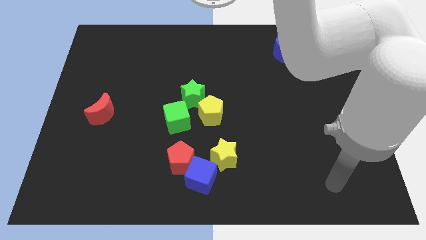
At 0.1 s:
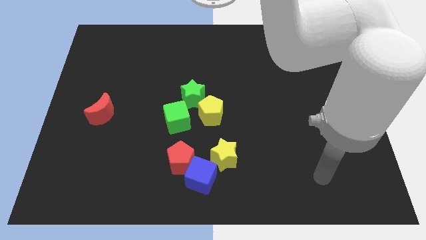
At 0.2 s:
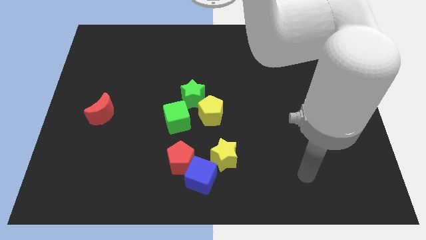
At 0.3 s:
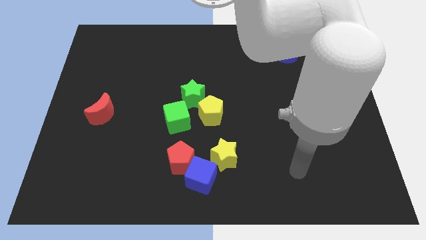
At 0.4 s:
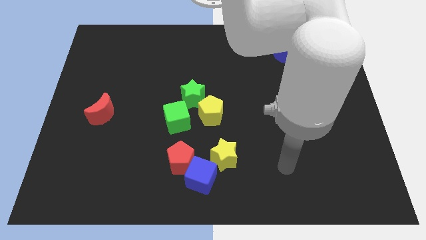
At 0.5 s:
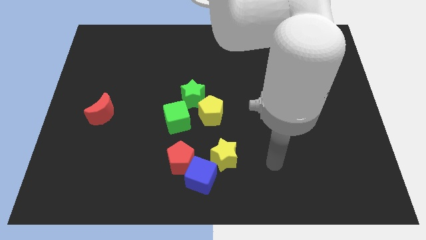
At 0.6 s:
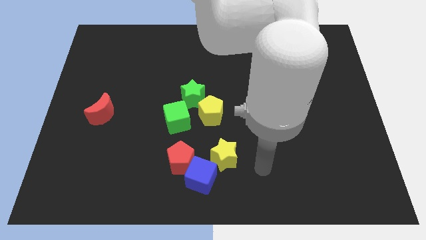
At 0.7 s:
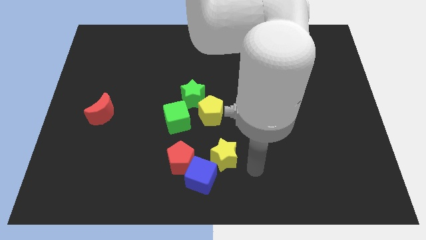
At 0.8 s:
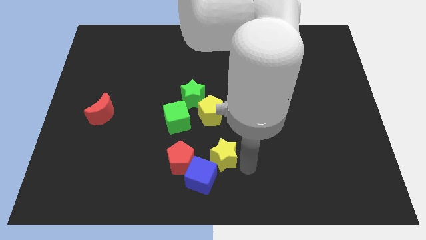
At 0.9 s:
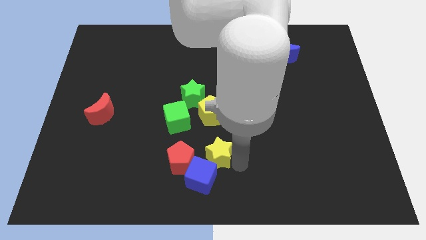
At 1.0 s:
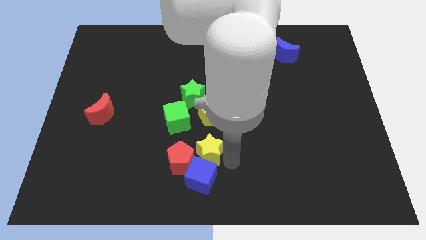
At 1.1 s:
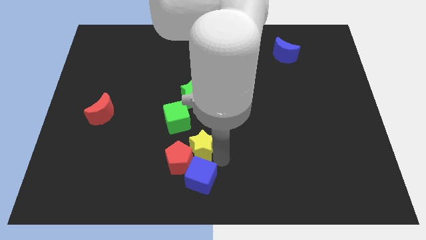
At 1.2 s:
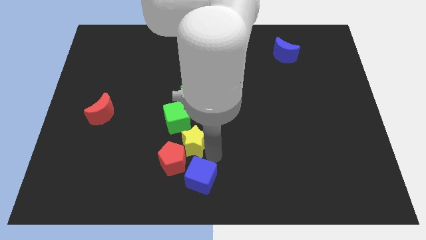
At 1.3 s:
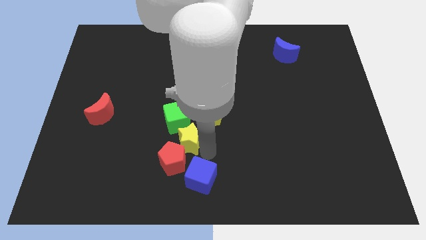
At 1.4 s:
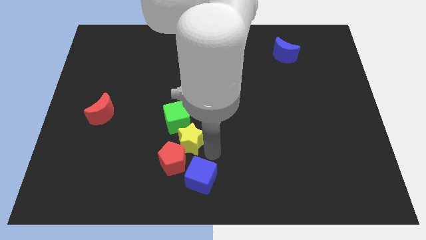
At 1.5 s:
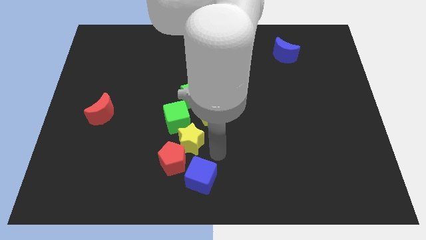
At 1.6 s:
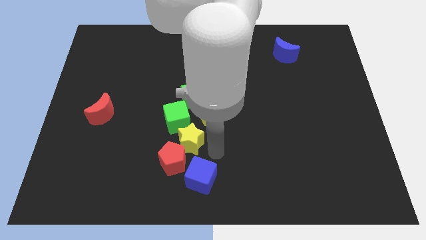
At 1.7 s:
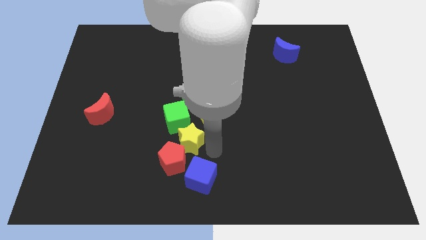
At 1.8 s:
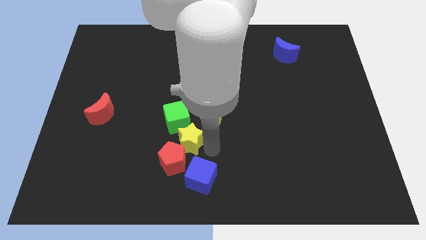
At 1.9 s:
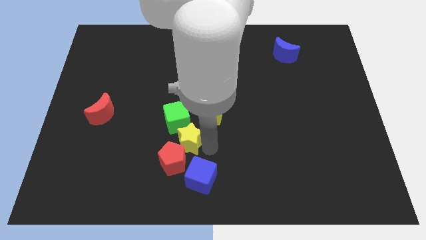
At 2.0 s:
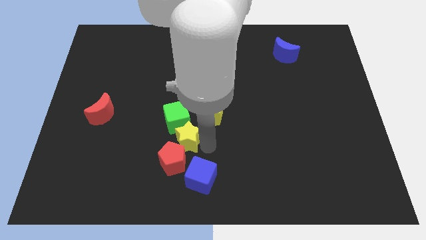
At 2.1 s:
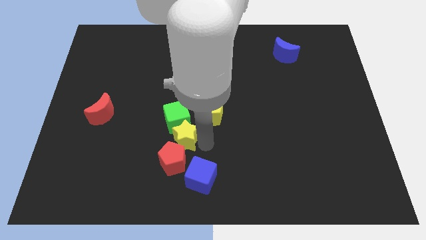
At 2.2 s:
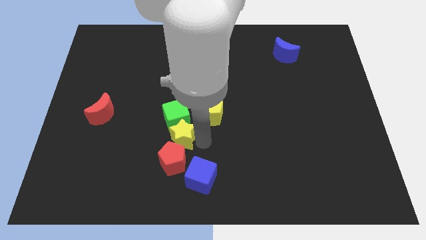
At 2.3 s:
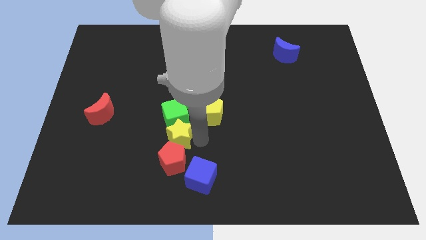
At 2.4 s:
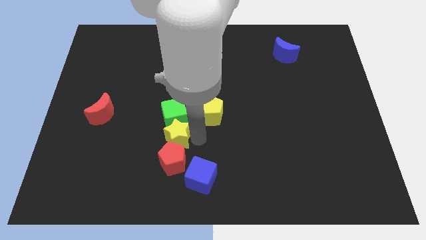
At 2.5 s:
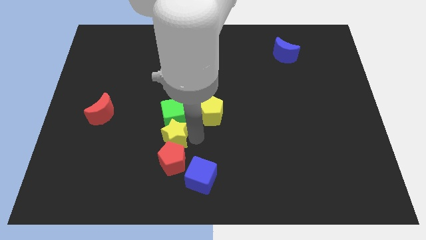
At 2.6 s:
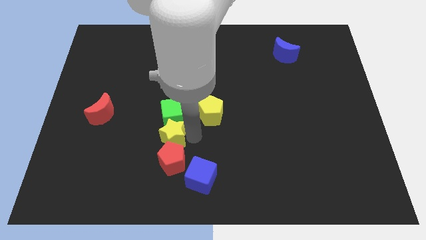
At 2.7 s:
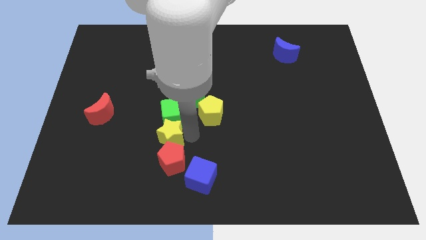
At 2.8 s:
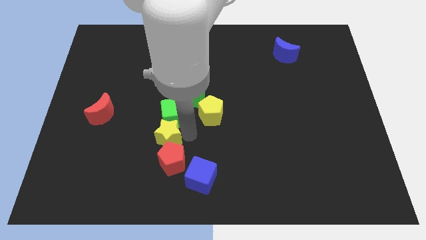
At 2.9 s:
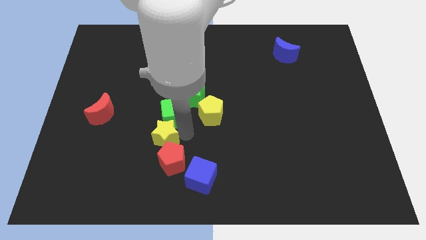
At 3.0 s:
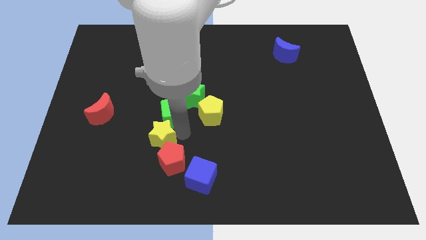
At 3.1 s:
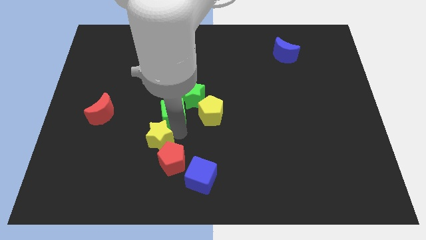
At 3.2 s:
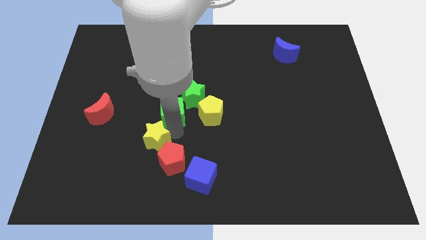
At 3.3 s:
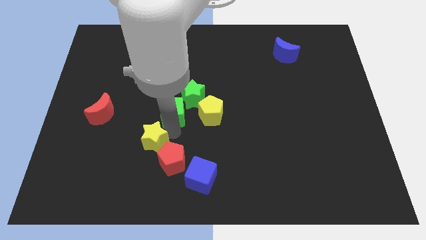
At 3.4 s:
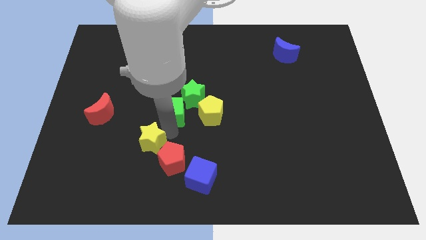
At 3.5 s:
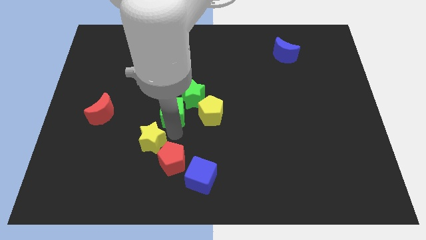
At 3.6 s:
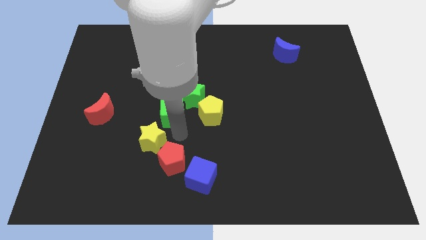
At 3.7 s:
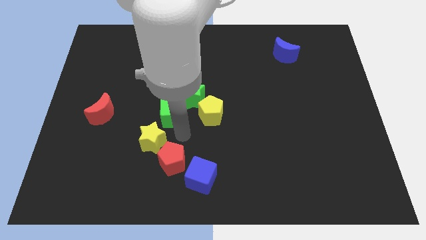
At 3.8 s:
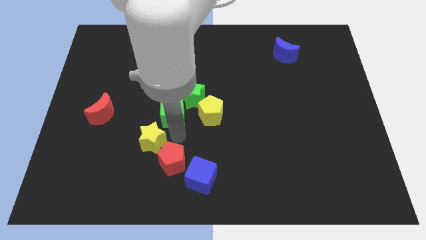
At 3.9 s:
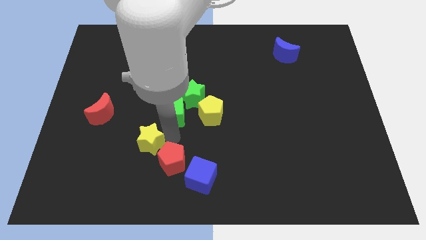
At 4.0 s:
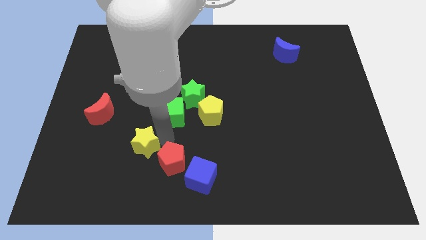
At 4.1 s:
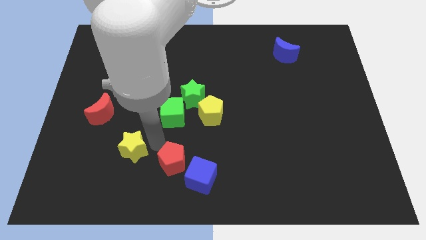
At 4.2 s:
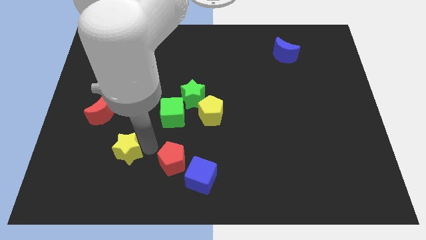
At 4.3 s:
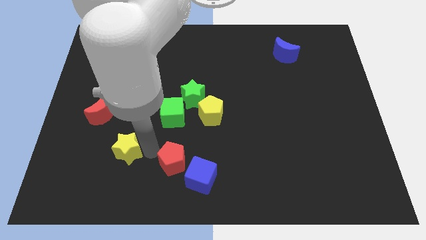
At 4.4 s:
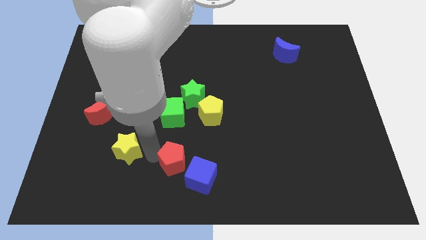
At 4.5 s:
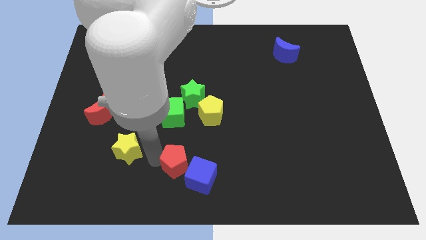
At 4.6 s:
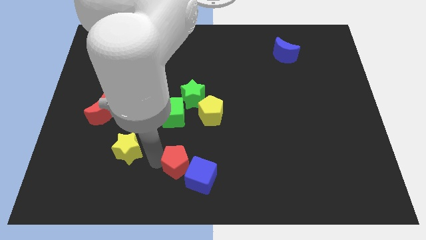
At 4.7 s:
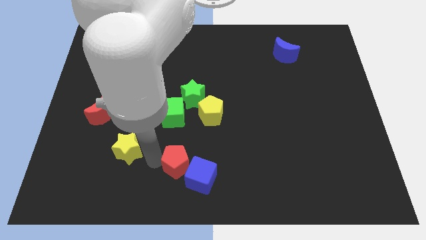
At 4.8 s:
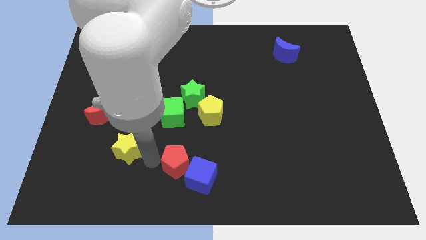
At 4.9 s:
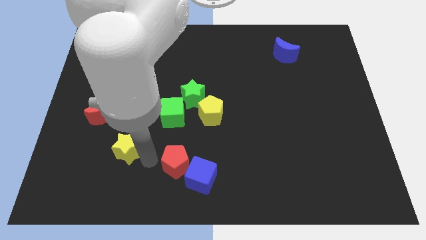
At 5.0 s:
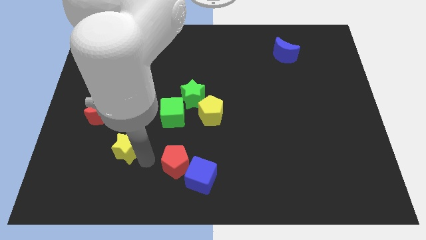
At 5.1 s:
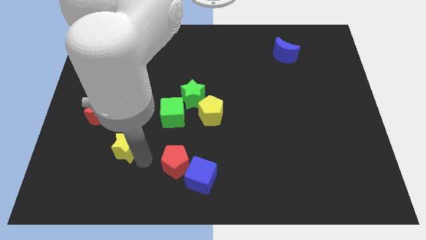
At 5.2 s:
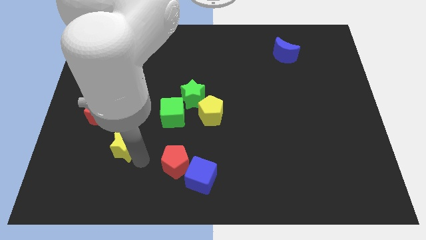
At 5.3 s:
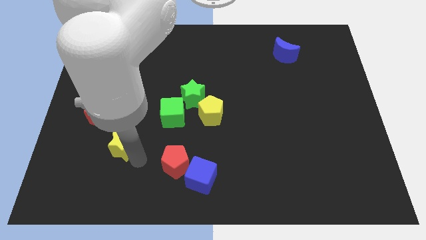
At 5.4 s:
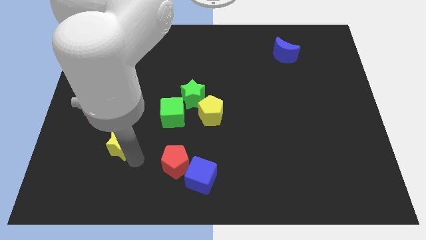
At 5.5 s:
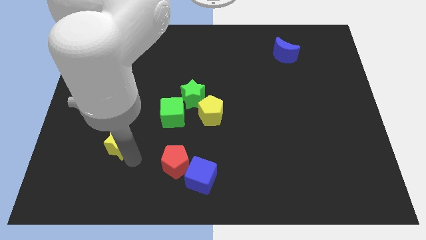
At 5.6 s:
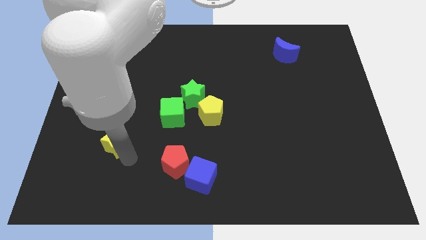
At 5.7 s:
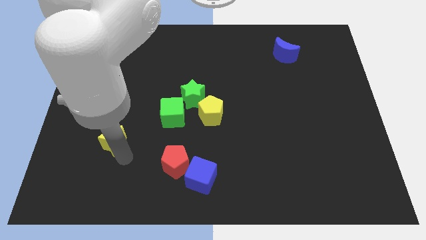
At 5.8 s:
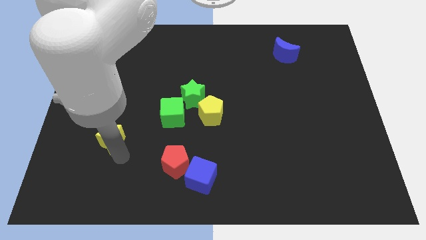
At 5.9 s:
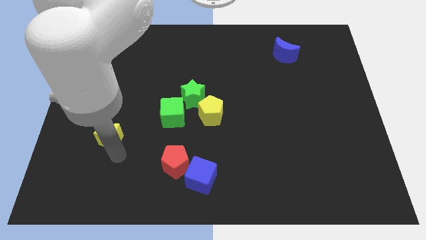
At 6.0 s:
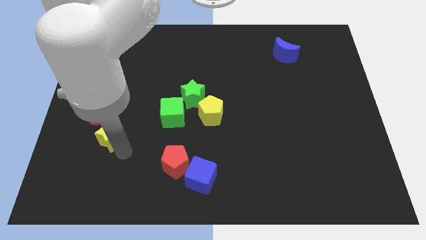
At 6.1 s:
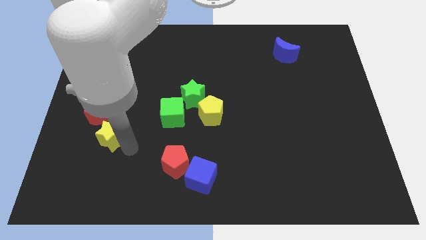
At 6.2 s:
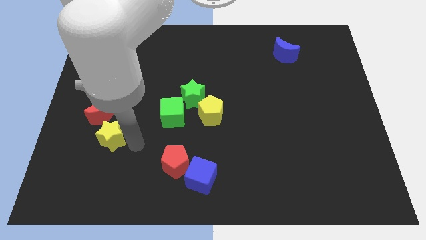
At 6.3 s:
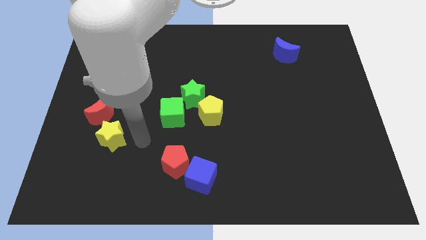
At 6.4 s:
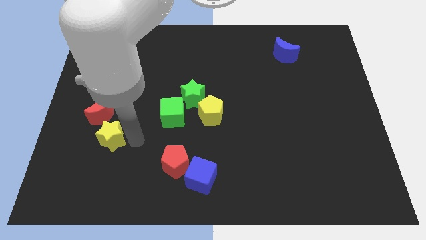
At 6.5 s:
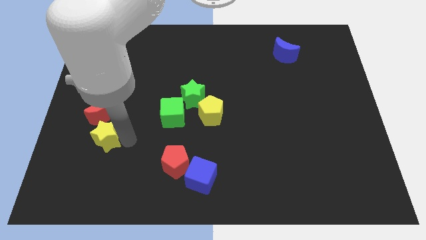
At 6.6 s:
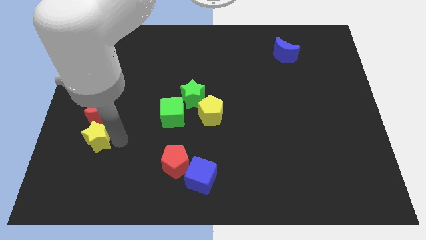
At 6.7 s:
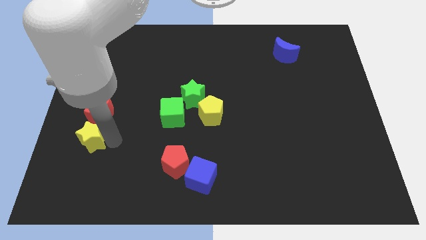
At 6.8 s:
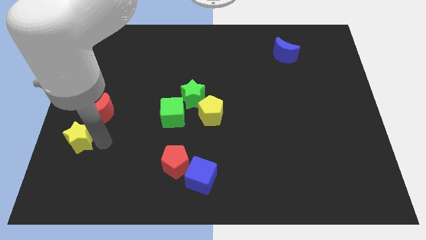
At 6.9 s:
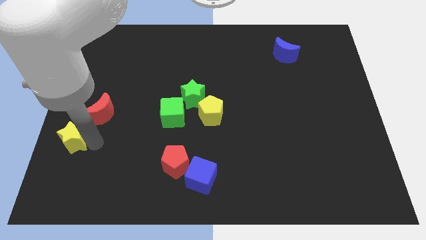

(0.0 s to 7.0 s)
push the yellow star to the left side
